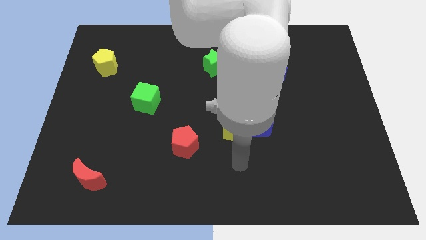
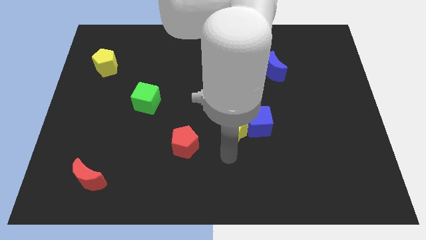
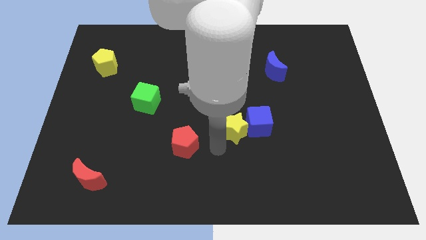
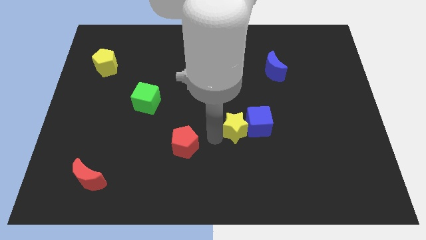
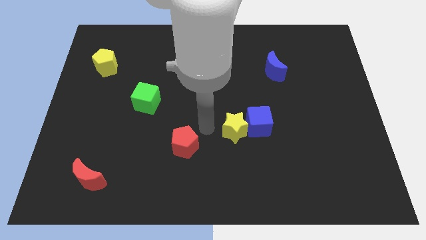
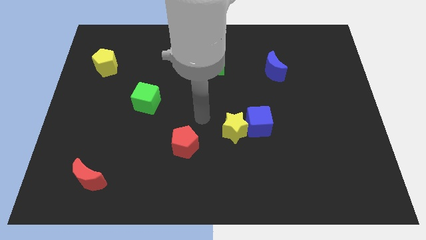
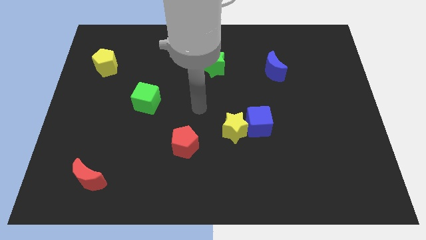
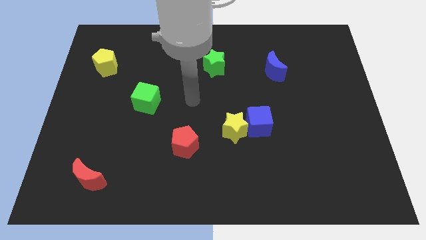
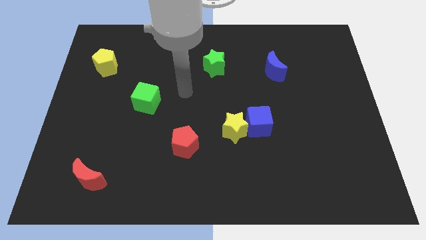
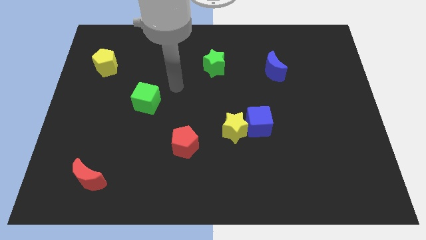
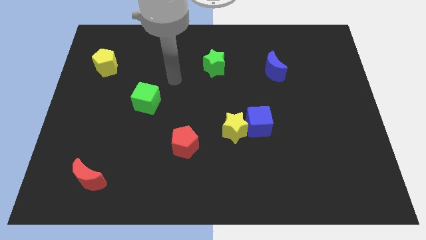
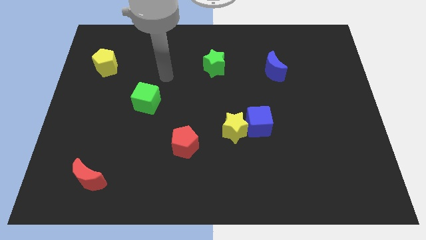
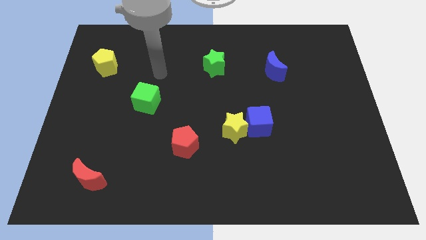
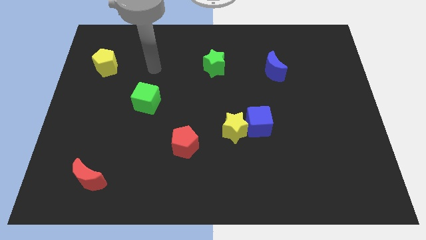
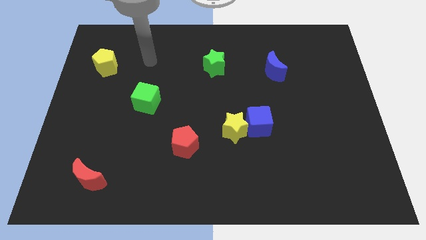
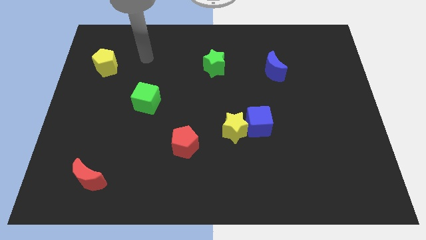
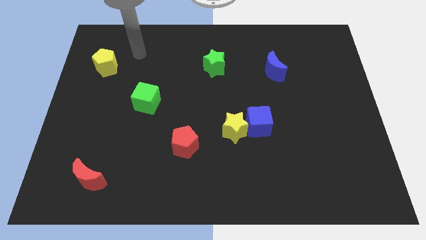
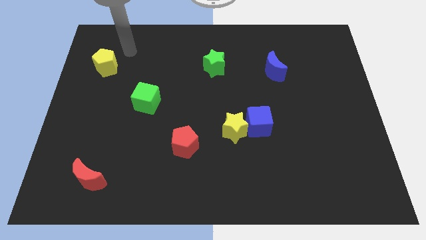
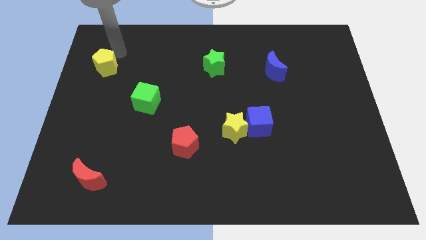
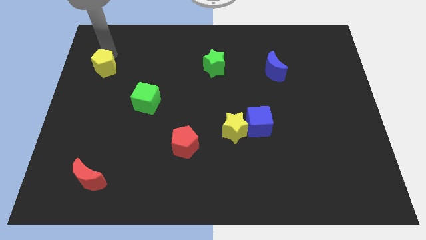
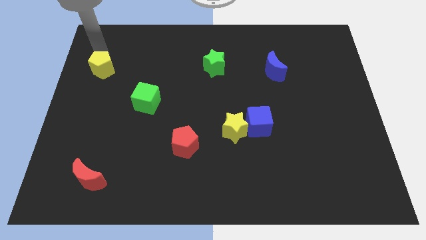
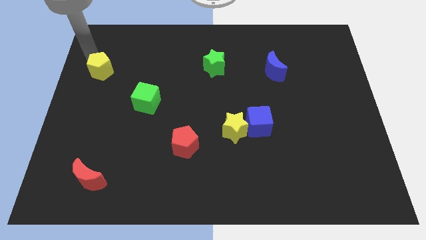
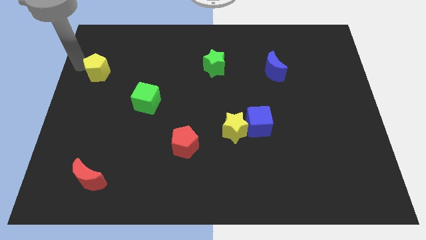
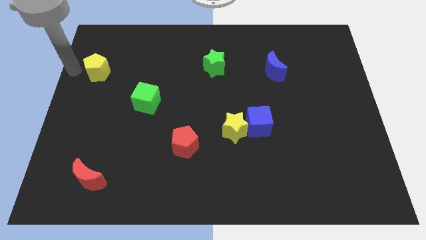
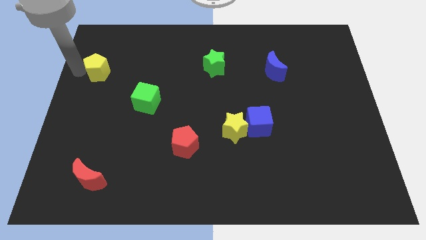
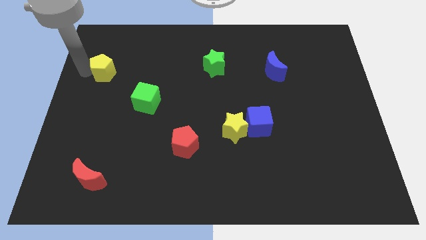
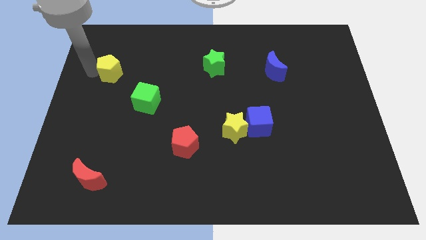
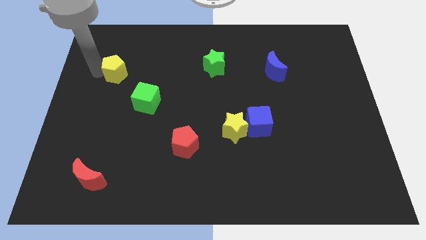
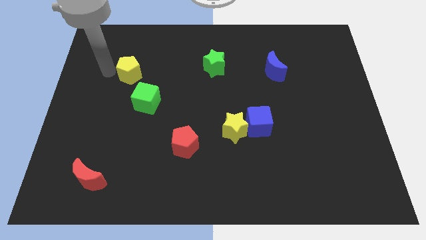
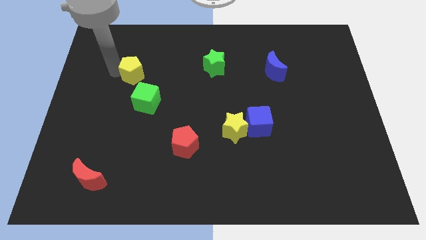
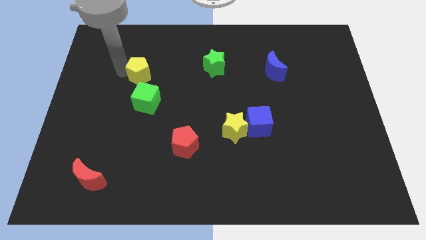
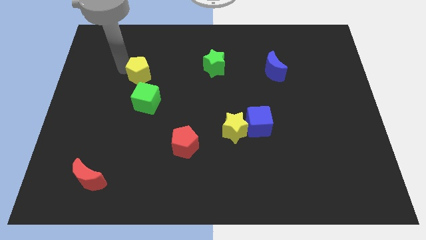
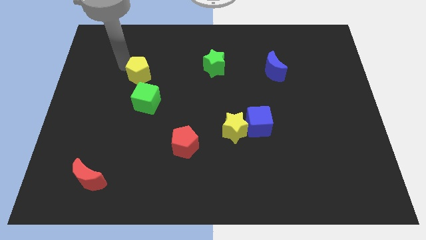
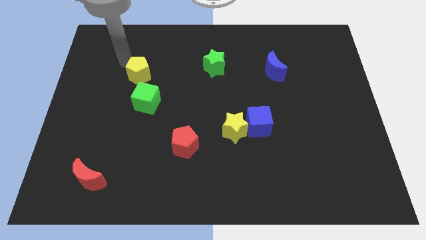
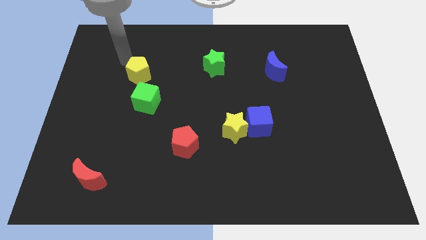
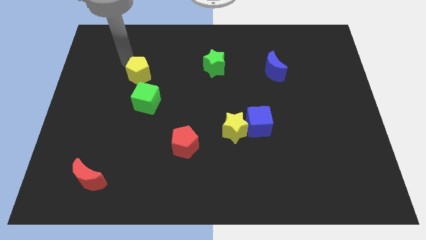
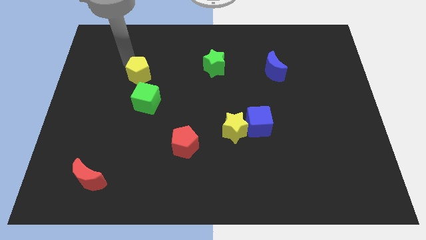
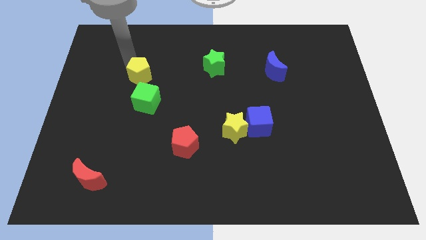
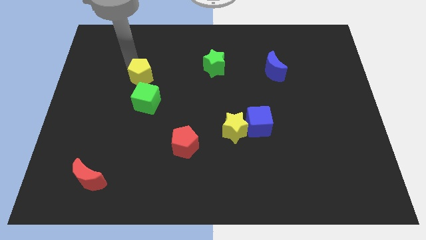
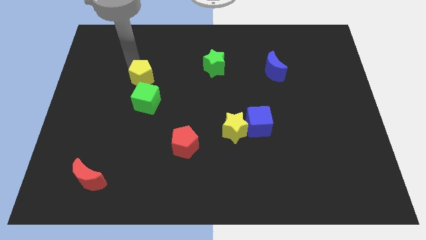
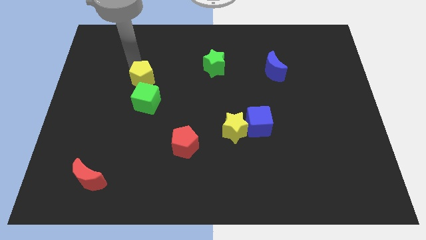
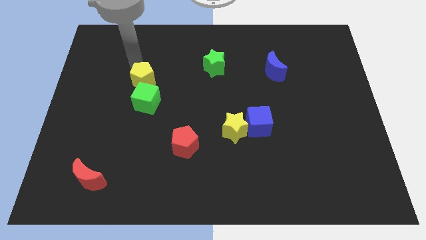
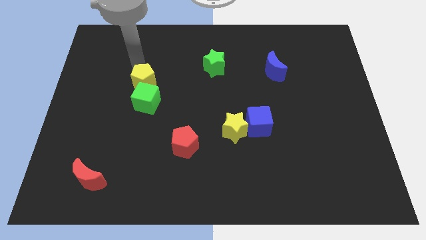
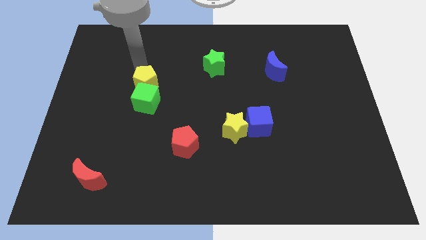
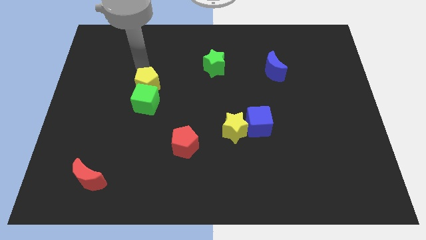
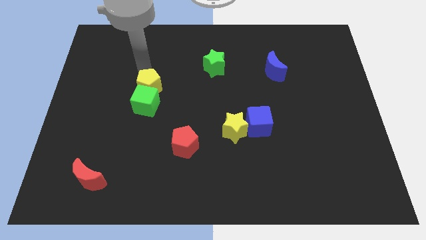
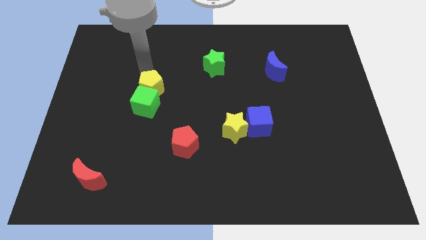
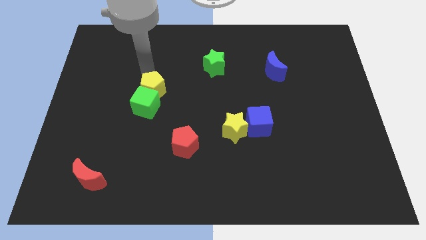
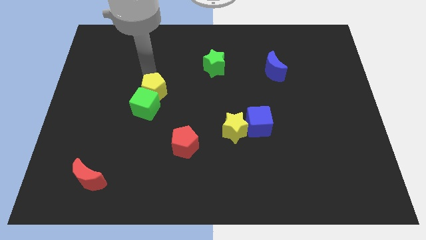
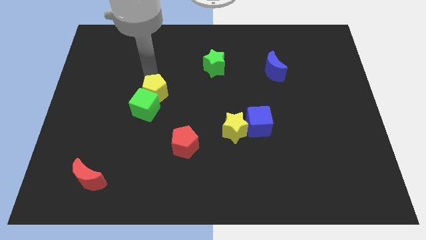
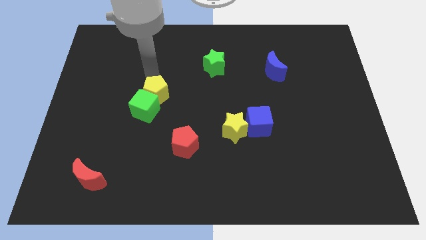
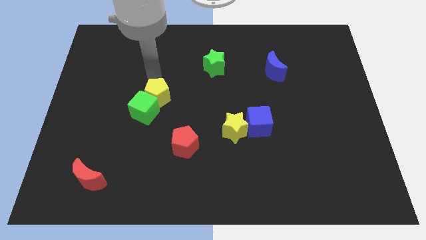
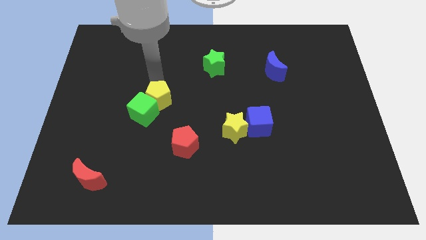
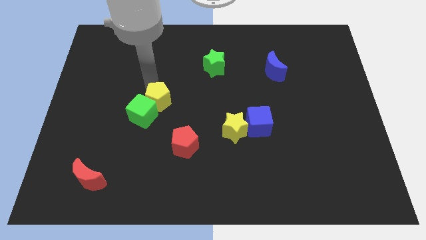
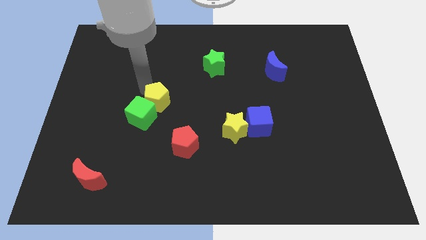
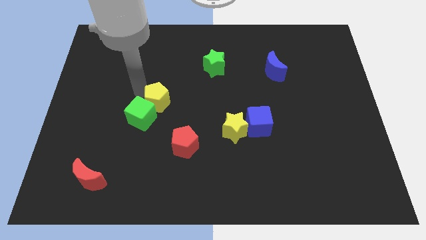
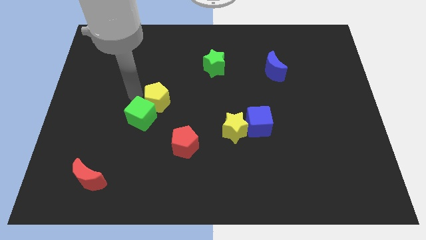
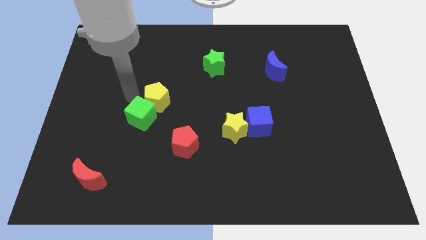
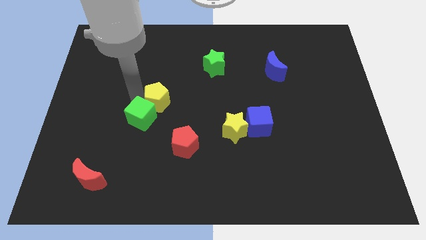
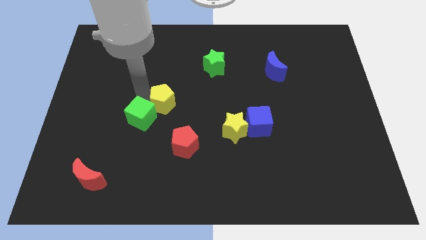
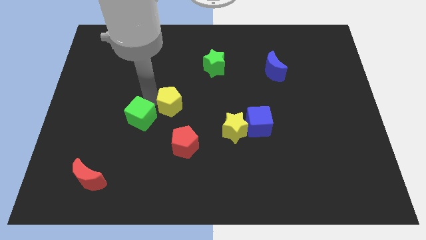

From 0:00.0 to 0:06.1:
put the yellow pentagon to the top of the red pentagon

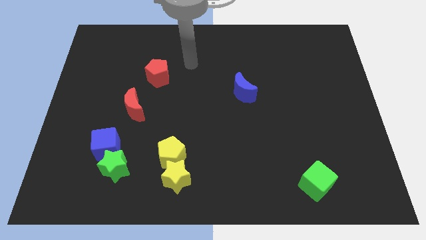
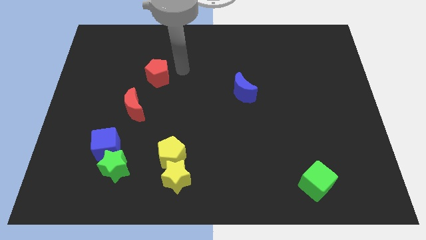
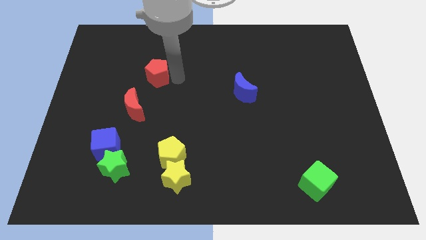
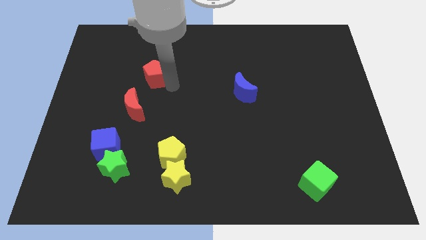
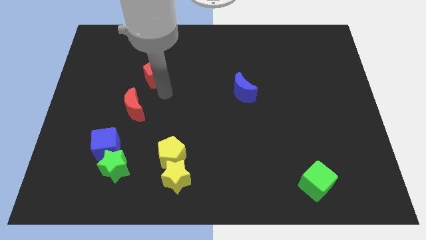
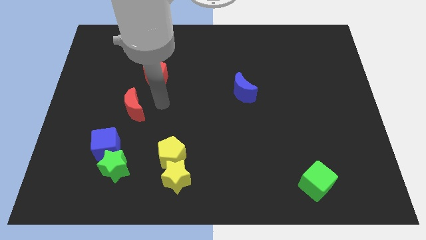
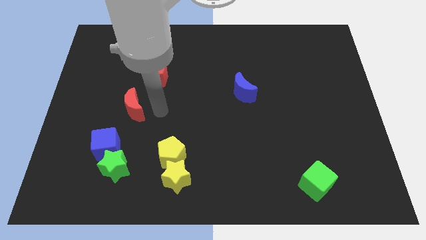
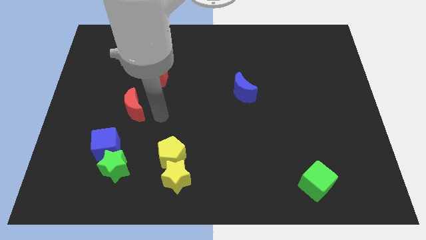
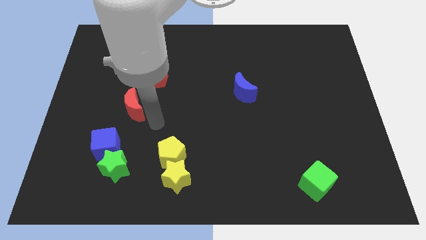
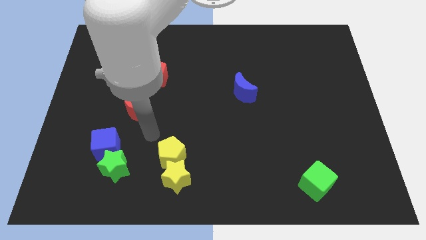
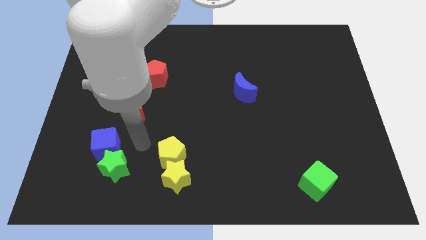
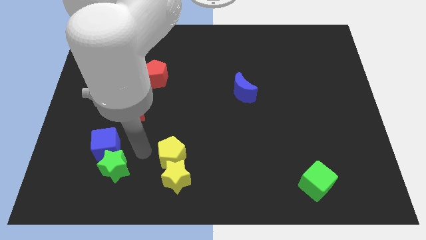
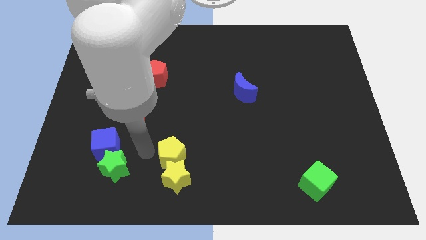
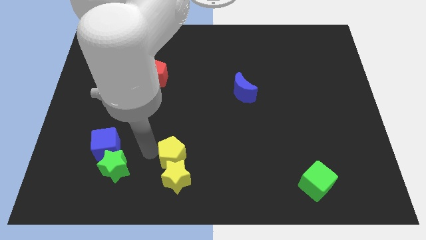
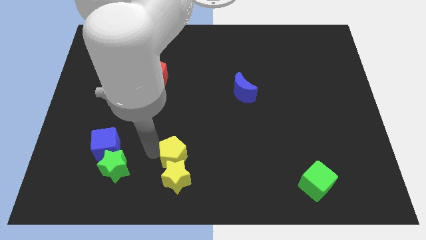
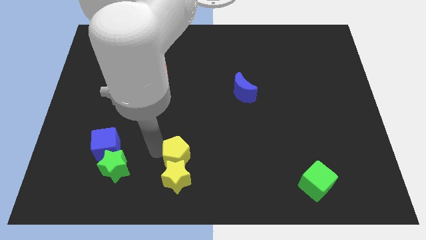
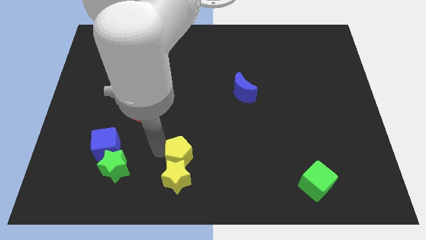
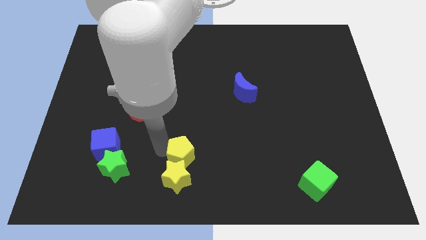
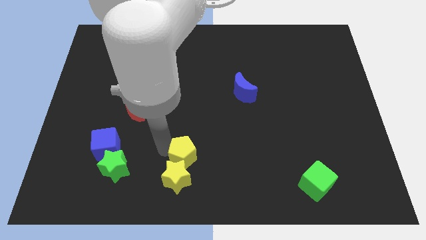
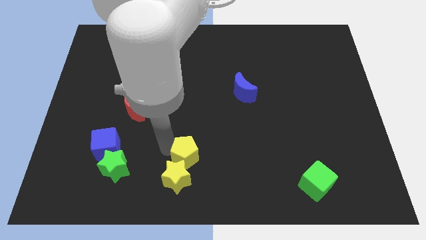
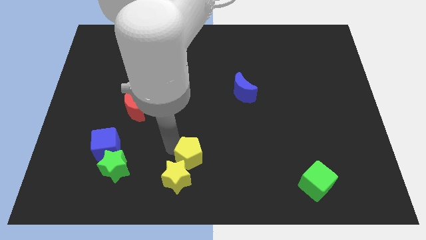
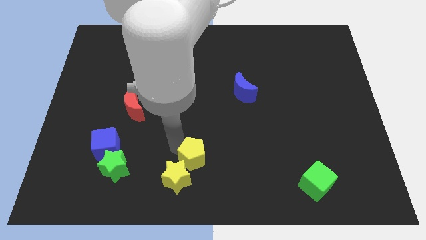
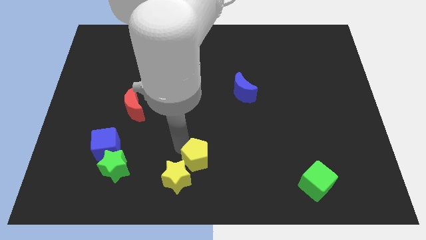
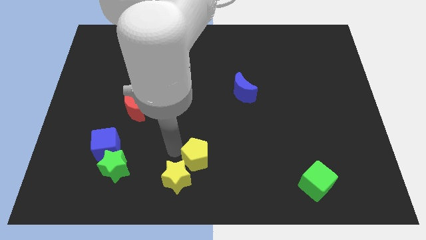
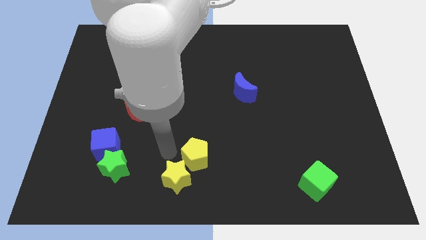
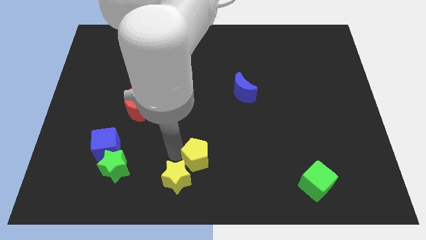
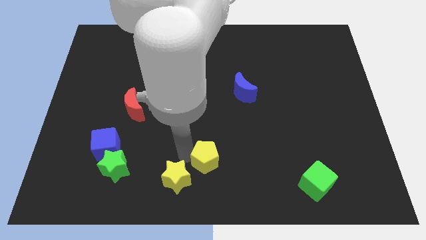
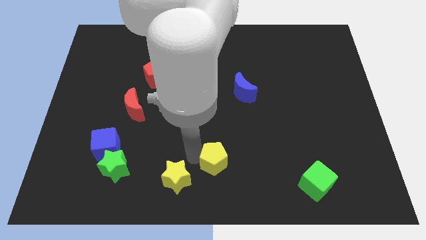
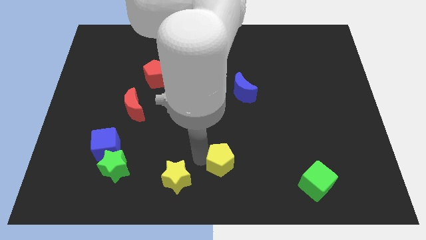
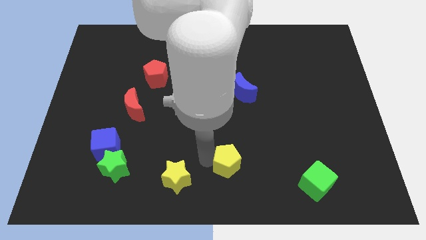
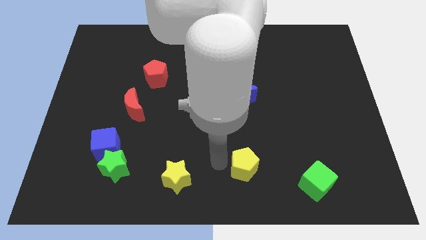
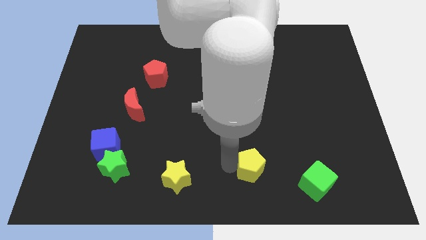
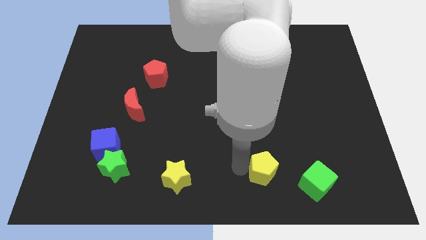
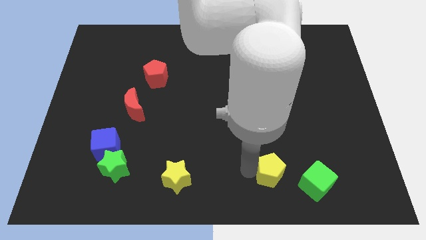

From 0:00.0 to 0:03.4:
slide the yellow pentagon to the top left of the green cube
